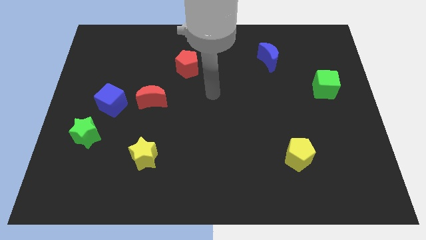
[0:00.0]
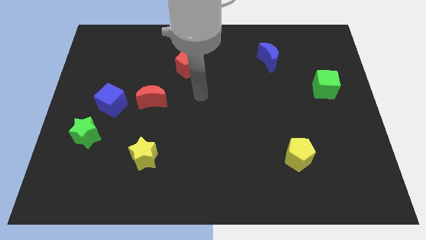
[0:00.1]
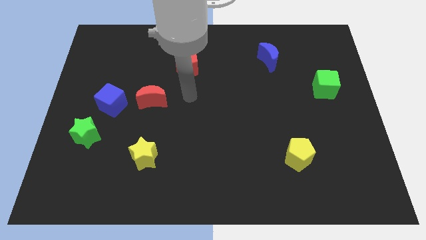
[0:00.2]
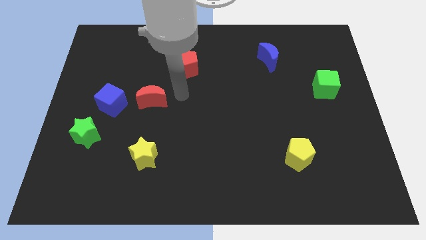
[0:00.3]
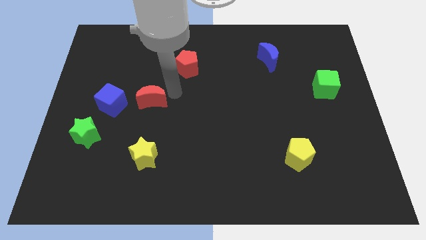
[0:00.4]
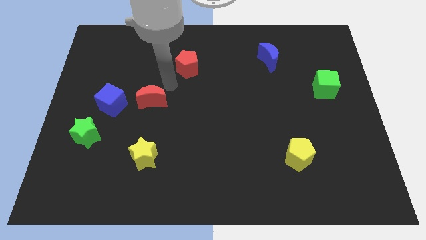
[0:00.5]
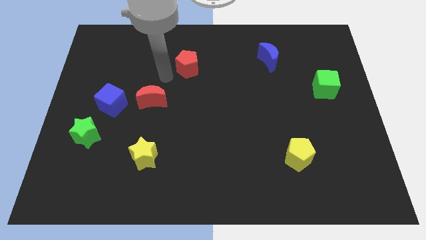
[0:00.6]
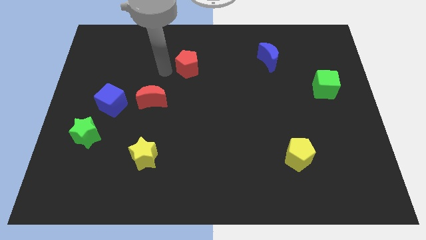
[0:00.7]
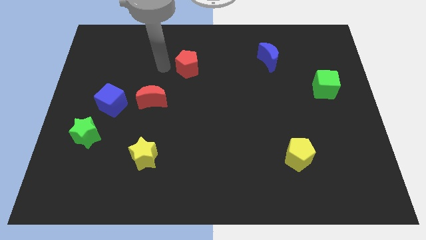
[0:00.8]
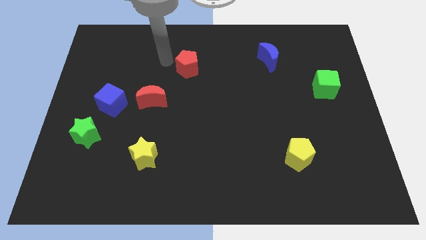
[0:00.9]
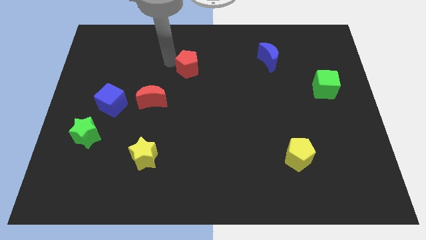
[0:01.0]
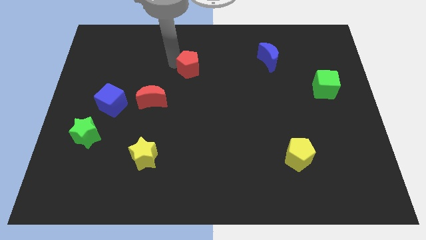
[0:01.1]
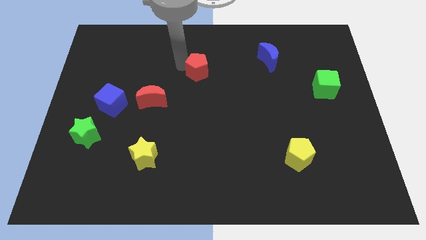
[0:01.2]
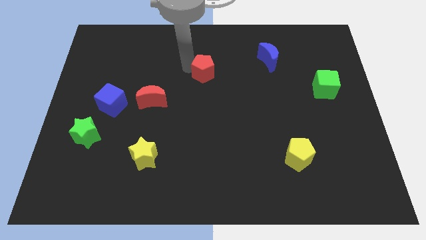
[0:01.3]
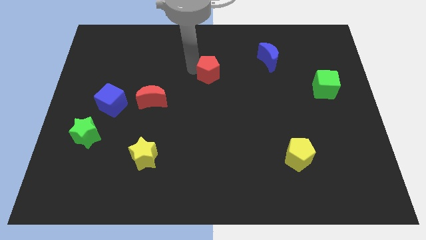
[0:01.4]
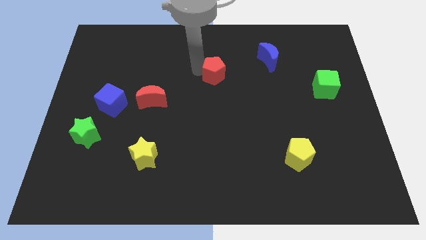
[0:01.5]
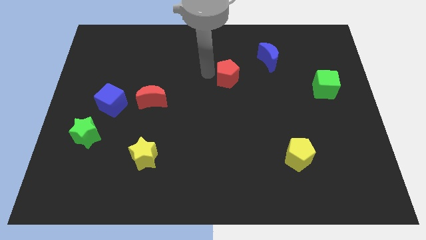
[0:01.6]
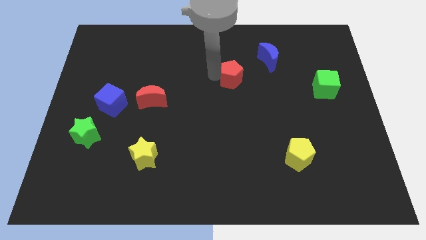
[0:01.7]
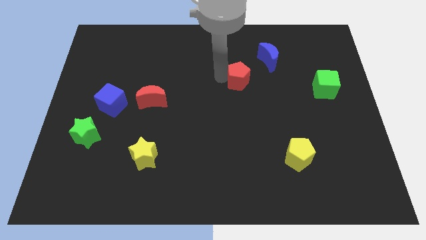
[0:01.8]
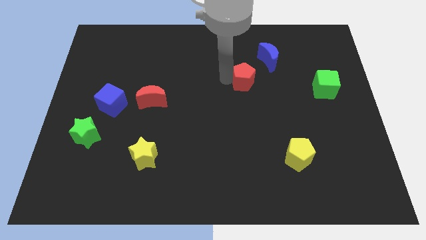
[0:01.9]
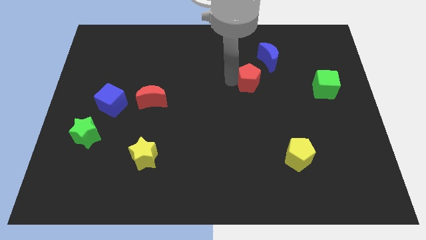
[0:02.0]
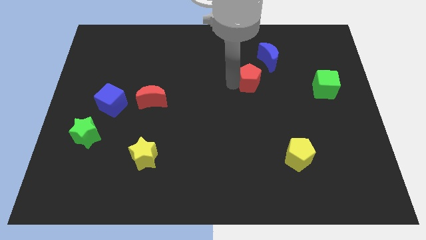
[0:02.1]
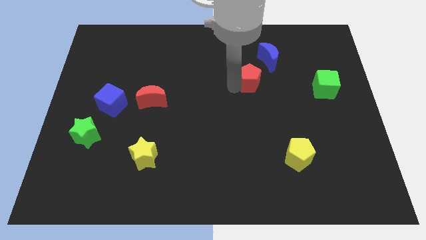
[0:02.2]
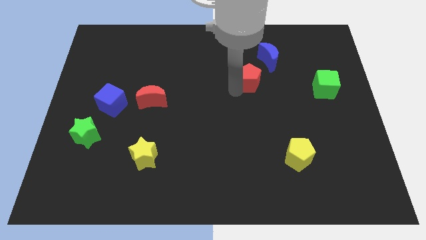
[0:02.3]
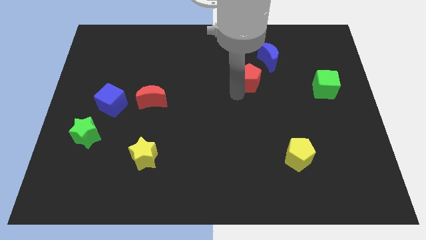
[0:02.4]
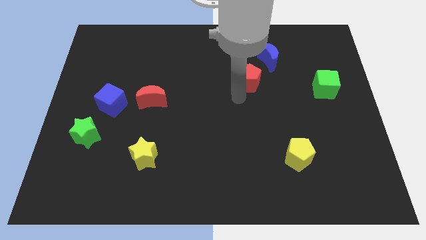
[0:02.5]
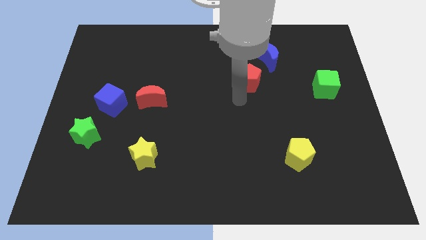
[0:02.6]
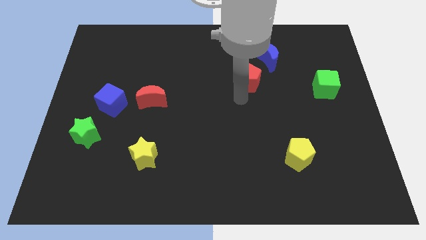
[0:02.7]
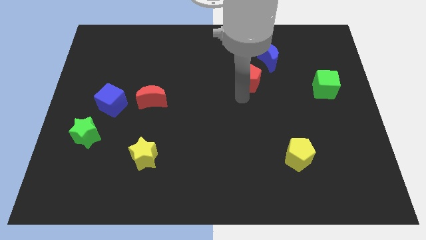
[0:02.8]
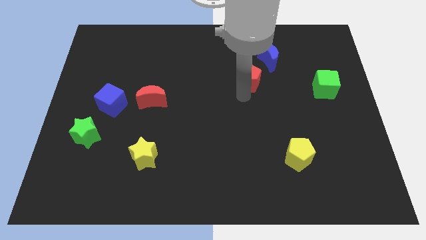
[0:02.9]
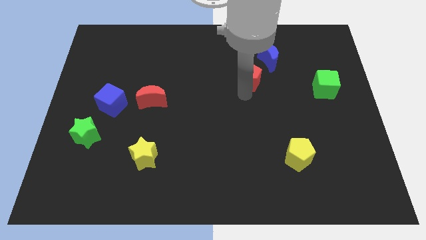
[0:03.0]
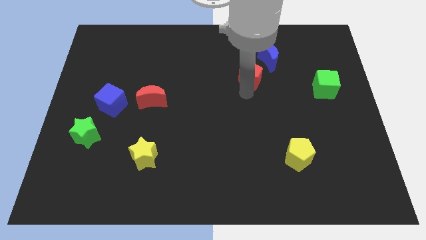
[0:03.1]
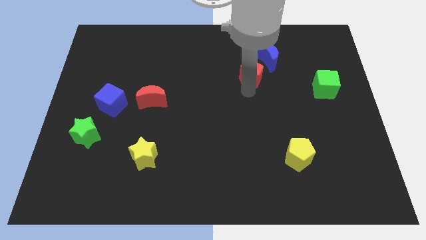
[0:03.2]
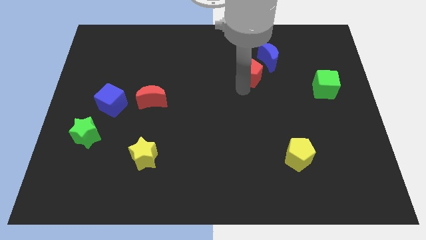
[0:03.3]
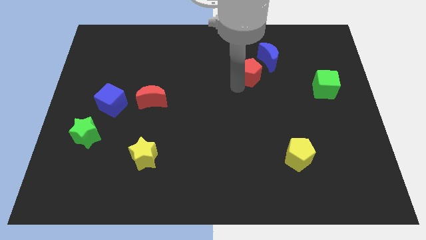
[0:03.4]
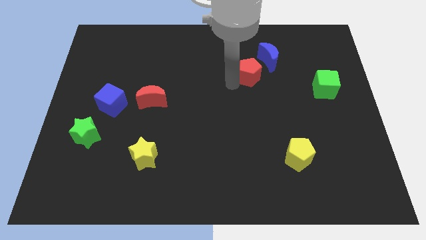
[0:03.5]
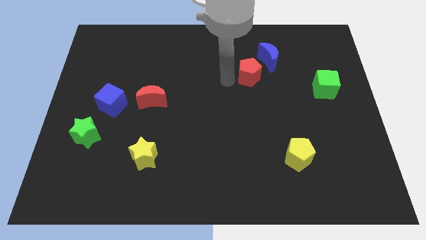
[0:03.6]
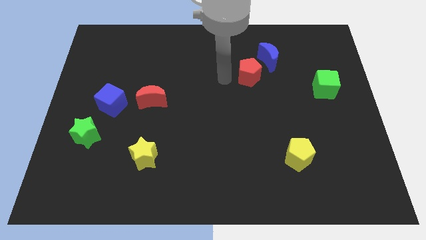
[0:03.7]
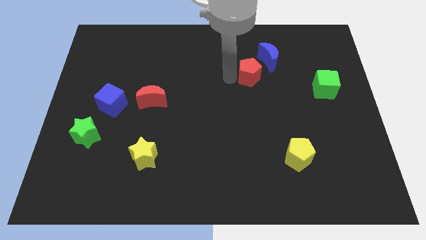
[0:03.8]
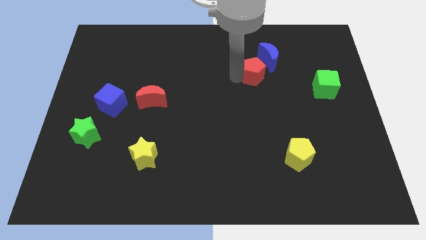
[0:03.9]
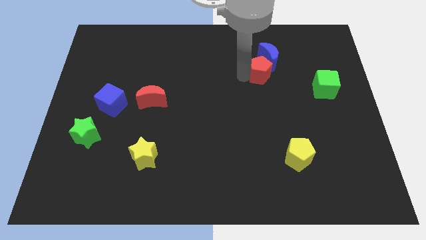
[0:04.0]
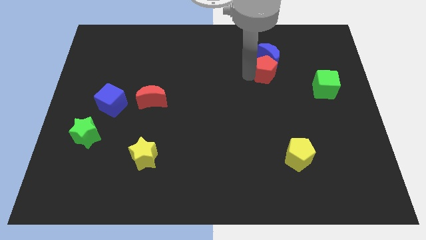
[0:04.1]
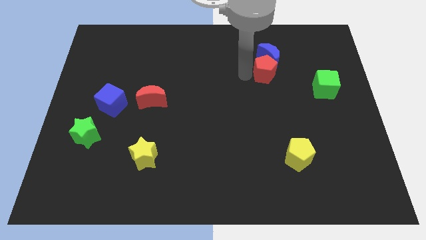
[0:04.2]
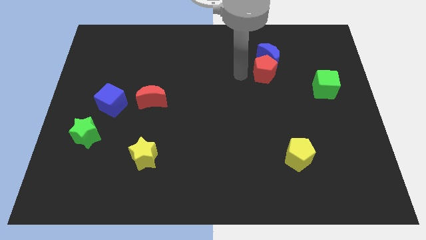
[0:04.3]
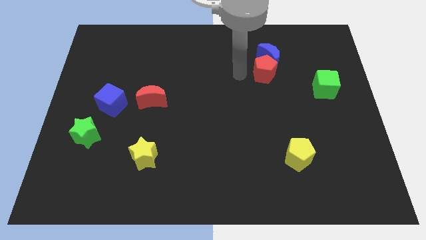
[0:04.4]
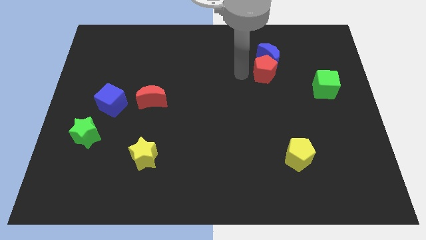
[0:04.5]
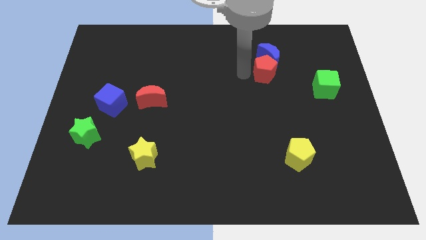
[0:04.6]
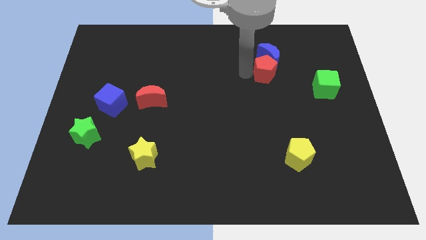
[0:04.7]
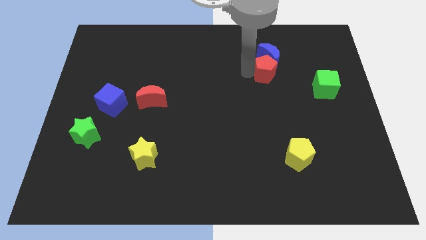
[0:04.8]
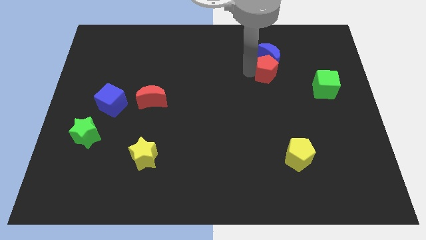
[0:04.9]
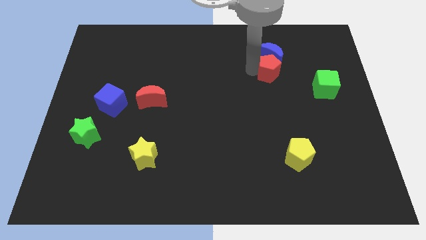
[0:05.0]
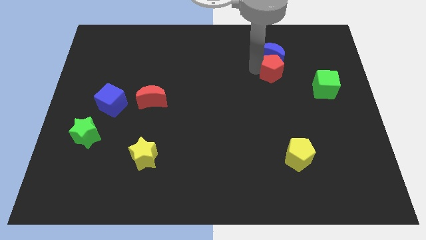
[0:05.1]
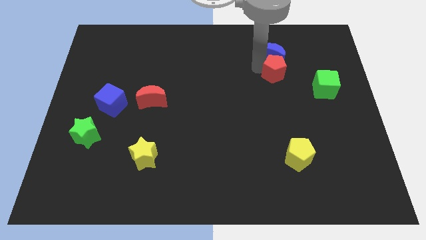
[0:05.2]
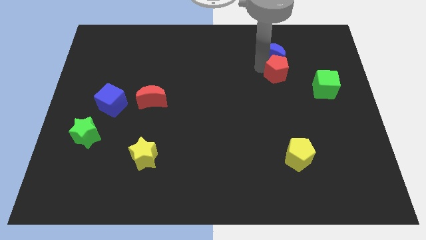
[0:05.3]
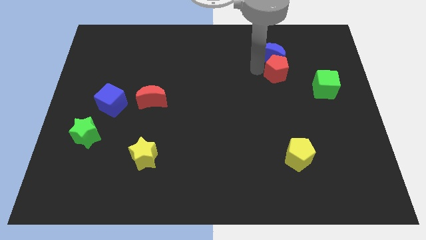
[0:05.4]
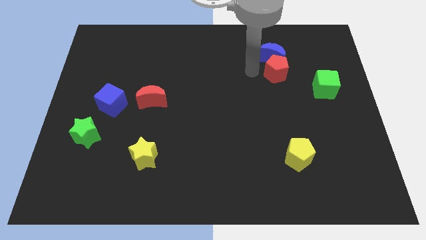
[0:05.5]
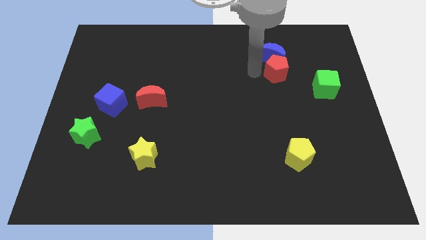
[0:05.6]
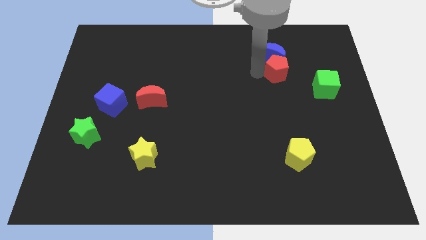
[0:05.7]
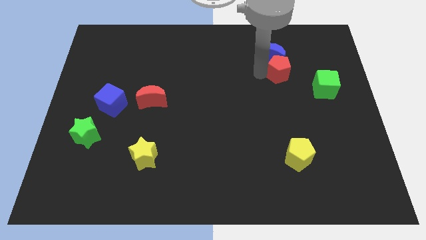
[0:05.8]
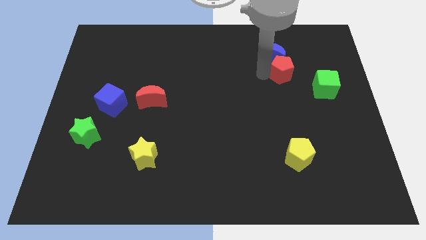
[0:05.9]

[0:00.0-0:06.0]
move the red pentagon diagonally up and to the left of the green cube

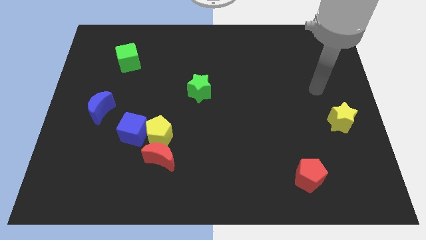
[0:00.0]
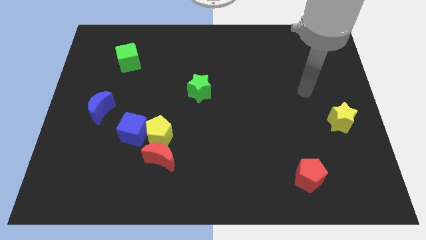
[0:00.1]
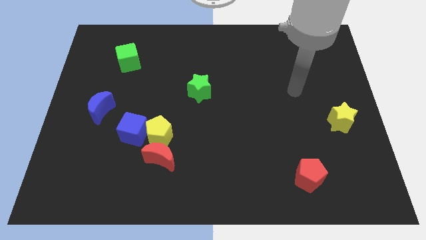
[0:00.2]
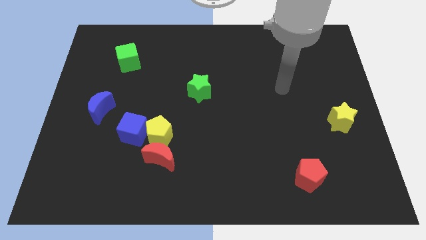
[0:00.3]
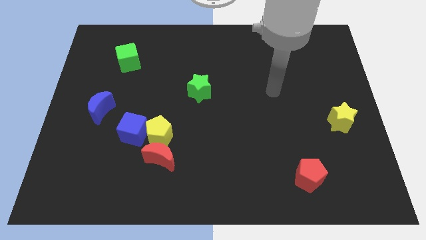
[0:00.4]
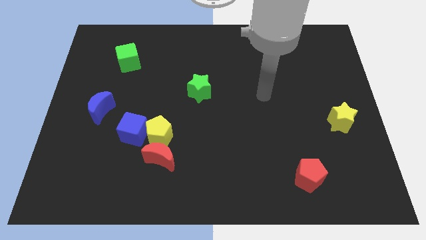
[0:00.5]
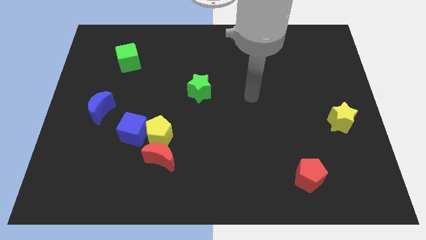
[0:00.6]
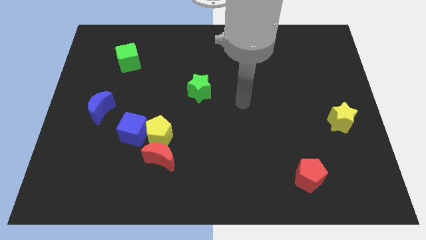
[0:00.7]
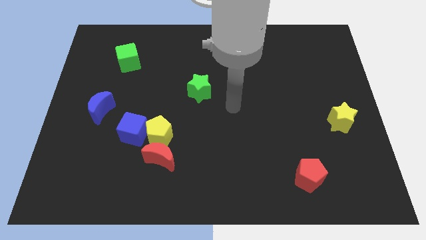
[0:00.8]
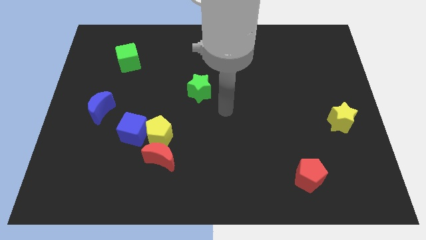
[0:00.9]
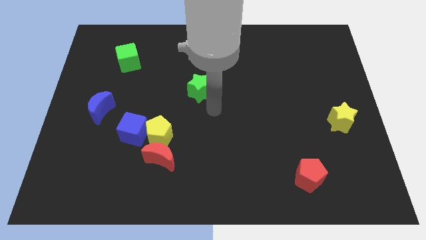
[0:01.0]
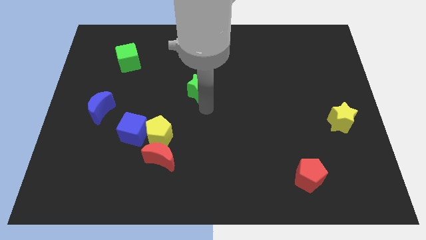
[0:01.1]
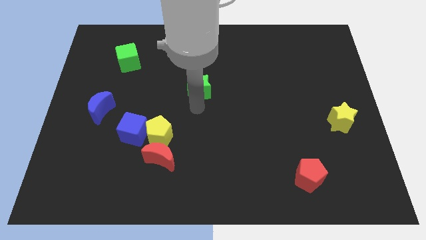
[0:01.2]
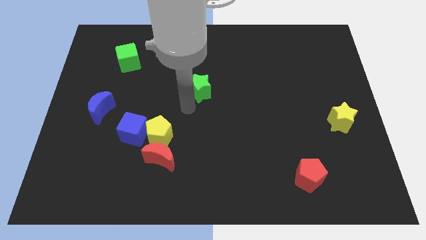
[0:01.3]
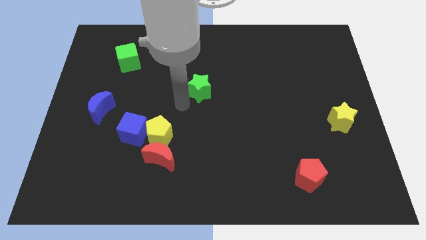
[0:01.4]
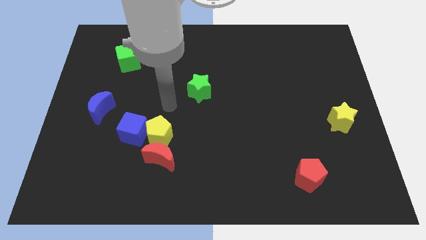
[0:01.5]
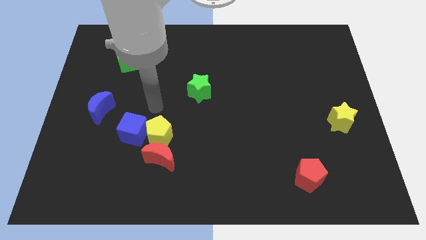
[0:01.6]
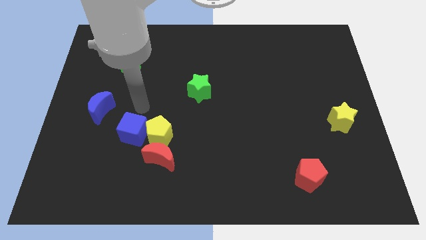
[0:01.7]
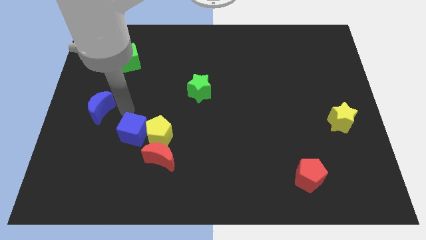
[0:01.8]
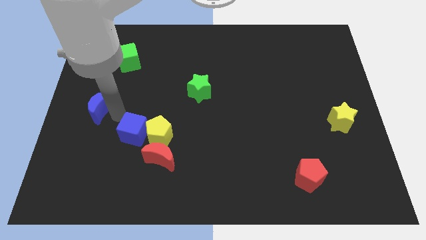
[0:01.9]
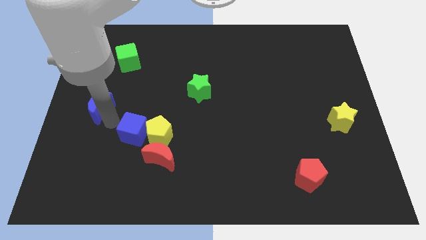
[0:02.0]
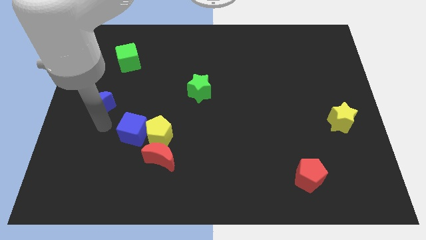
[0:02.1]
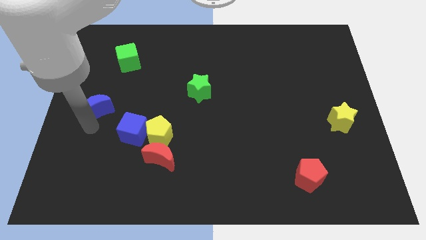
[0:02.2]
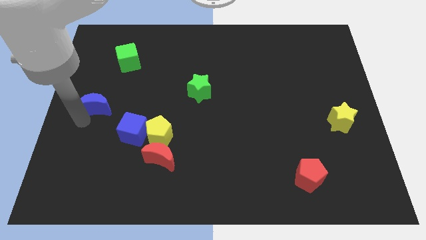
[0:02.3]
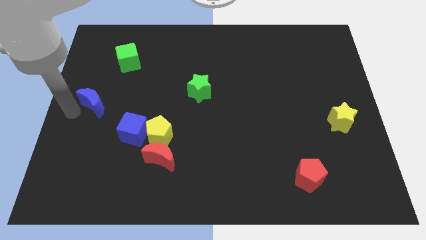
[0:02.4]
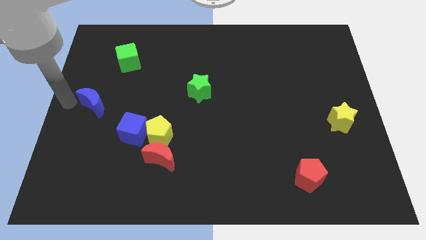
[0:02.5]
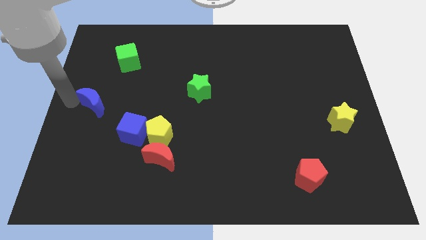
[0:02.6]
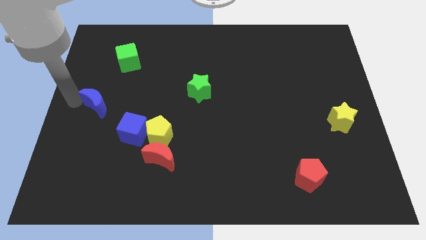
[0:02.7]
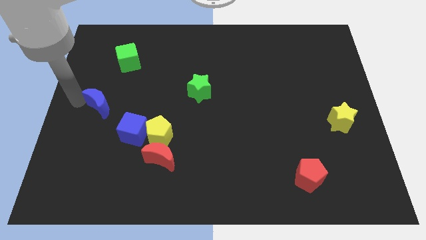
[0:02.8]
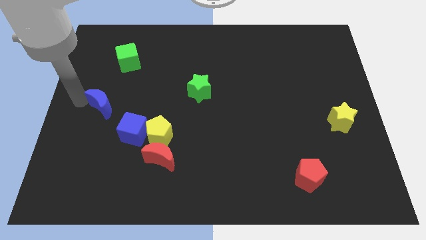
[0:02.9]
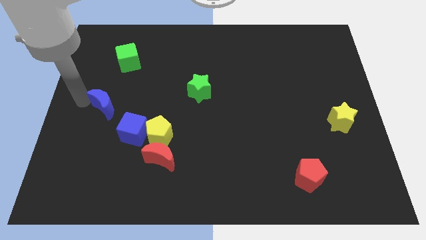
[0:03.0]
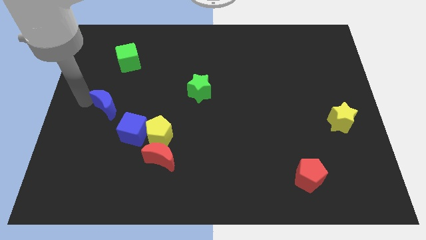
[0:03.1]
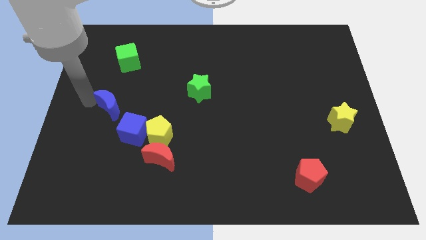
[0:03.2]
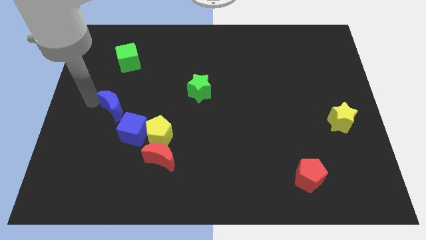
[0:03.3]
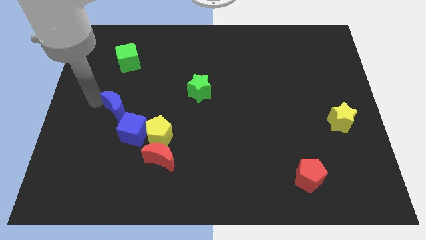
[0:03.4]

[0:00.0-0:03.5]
slide the blue moon above the blue cube
